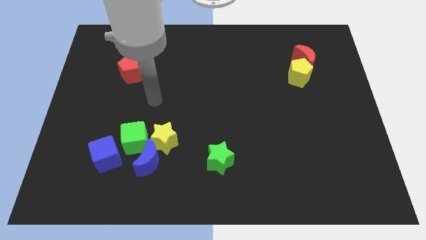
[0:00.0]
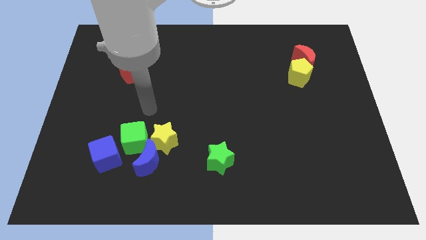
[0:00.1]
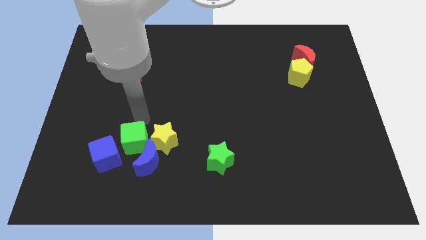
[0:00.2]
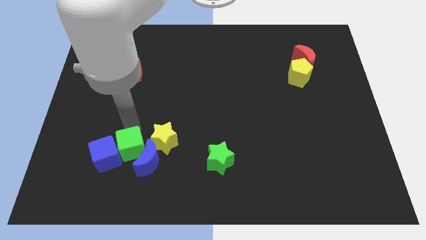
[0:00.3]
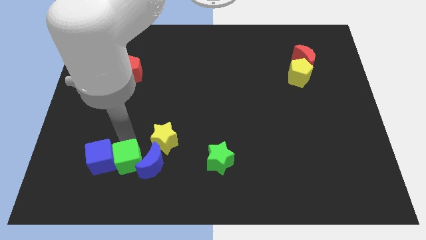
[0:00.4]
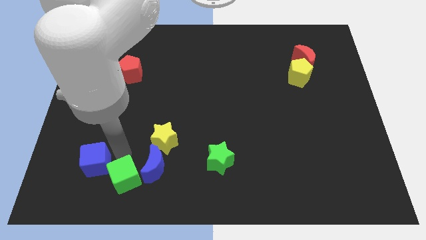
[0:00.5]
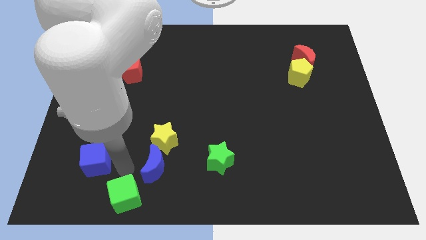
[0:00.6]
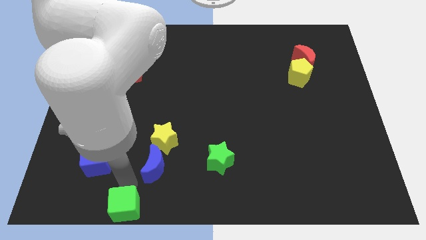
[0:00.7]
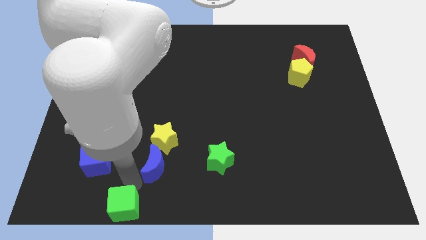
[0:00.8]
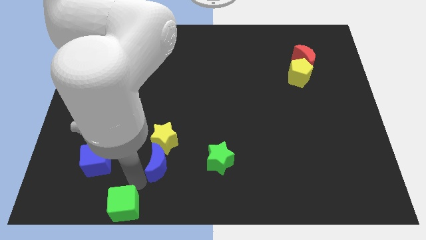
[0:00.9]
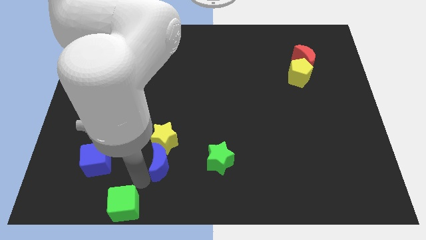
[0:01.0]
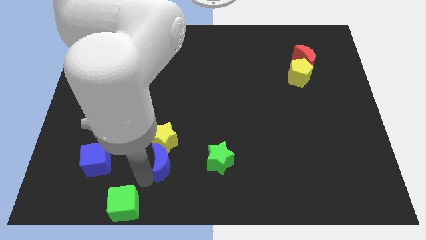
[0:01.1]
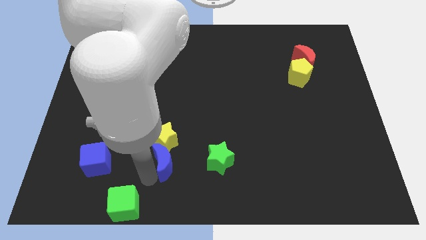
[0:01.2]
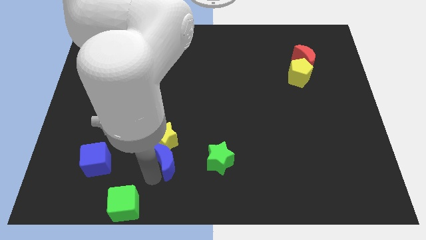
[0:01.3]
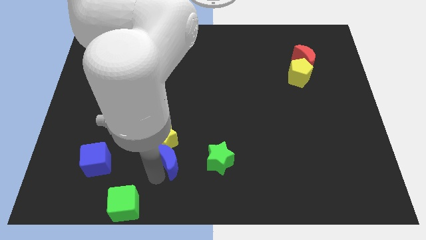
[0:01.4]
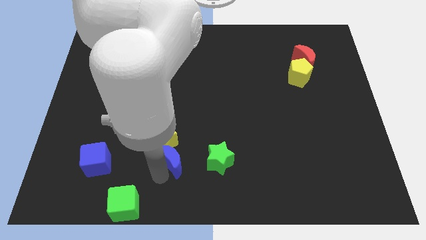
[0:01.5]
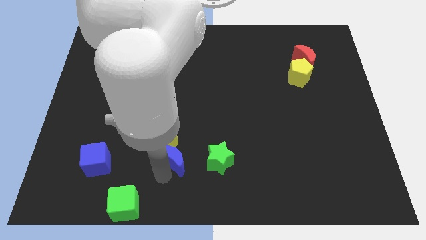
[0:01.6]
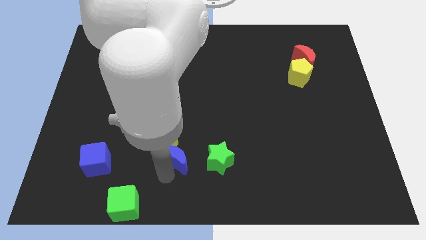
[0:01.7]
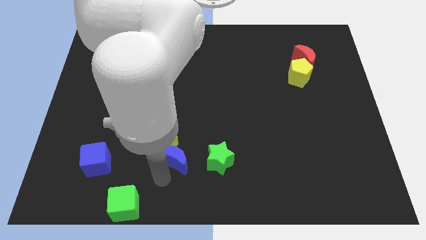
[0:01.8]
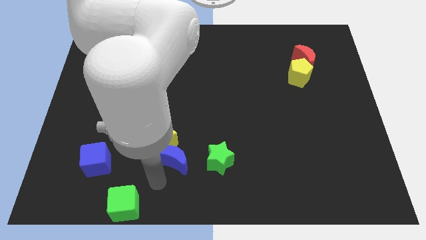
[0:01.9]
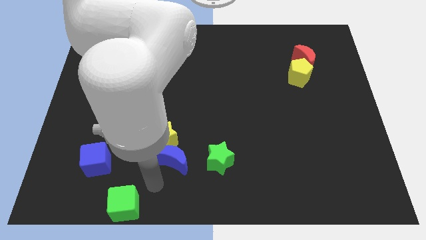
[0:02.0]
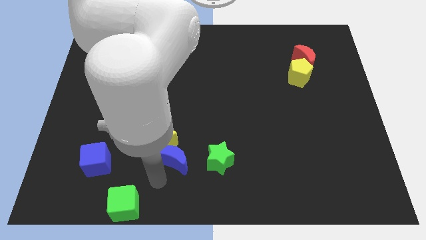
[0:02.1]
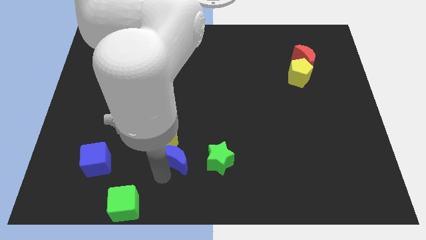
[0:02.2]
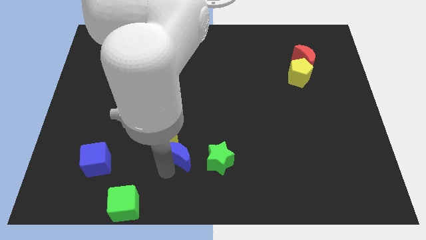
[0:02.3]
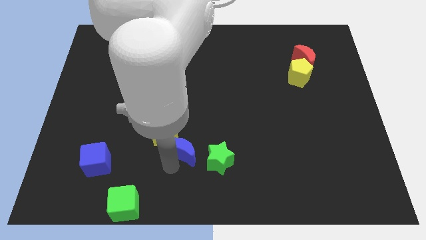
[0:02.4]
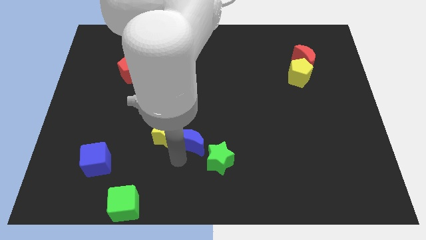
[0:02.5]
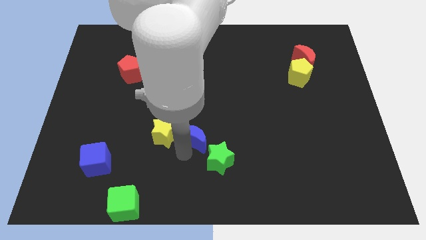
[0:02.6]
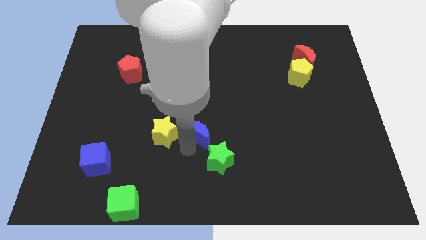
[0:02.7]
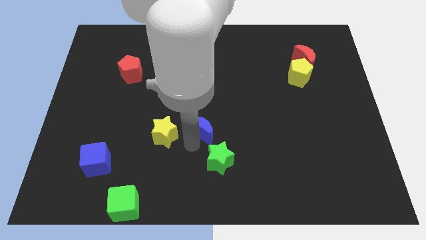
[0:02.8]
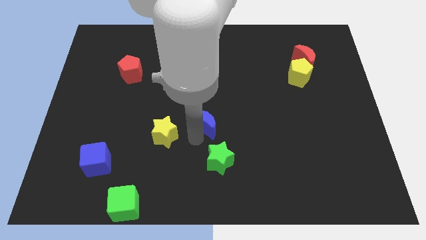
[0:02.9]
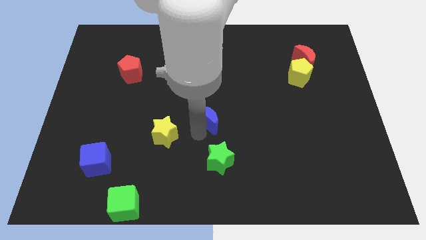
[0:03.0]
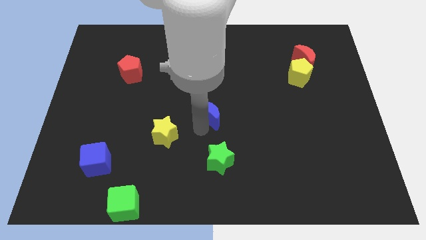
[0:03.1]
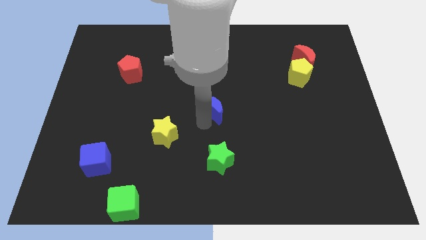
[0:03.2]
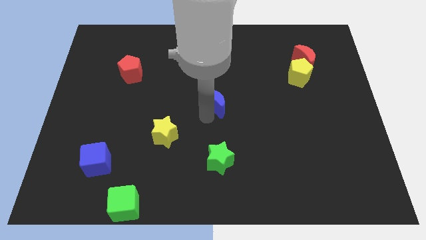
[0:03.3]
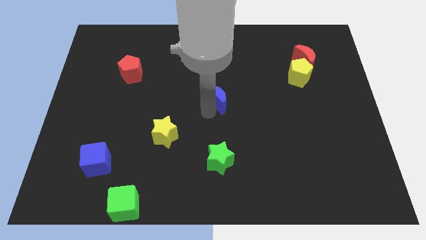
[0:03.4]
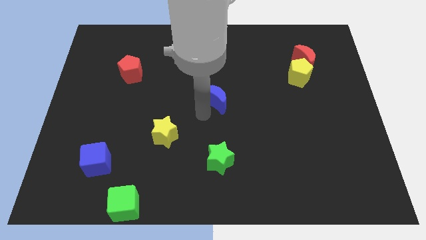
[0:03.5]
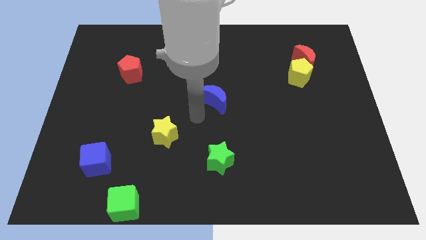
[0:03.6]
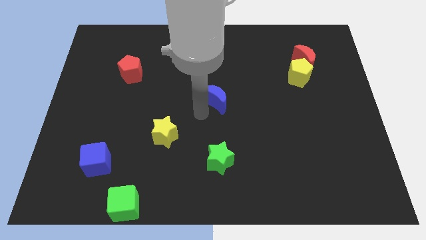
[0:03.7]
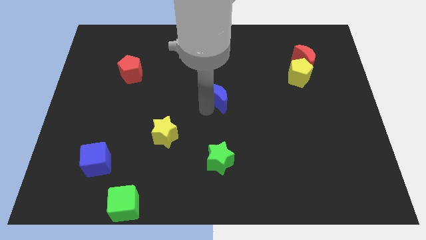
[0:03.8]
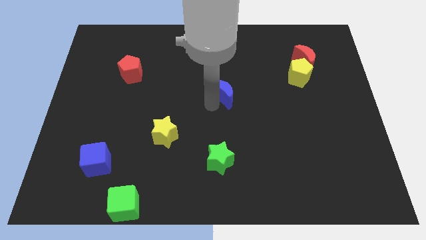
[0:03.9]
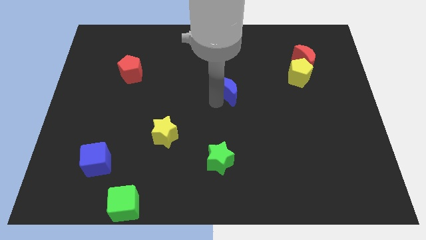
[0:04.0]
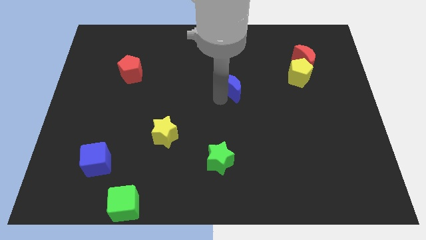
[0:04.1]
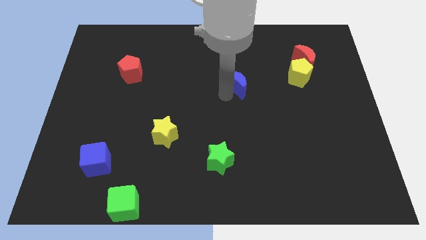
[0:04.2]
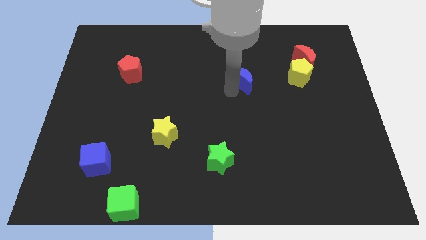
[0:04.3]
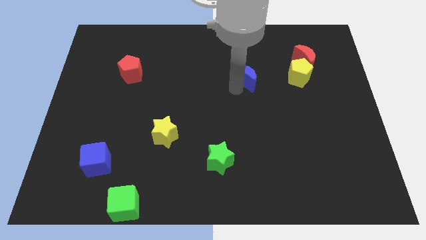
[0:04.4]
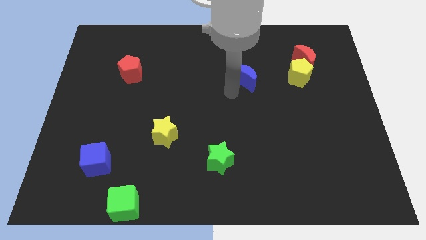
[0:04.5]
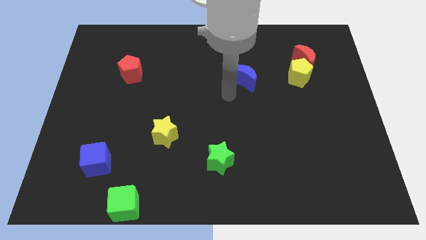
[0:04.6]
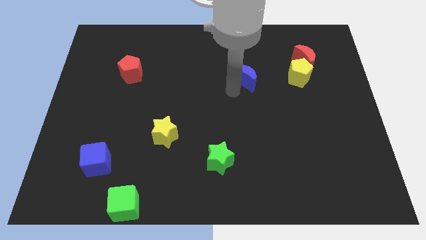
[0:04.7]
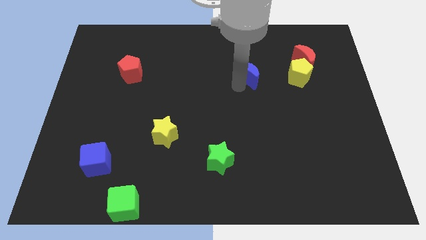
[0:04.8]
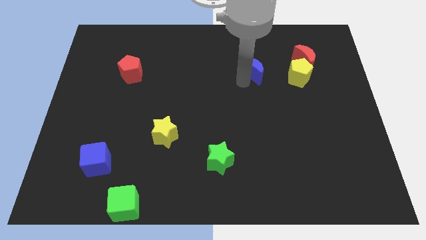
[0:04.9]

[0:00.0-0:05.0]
slide the blue moon to the left of the red moon

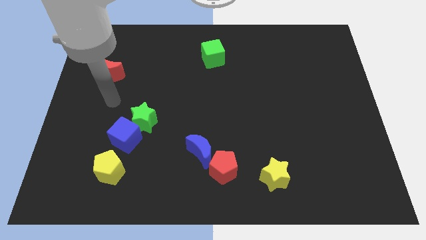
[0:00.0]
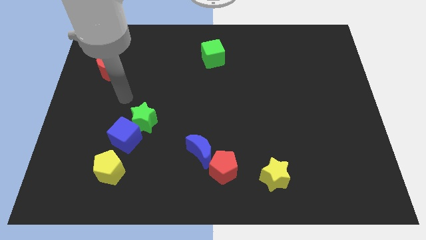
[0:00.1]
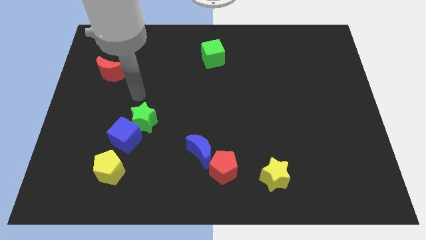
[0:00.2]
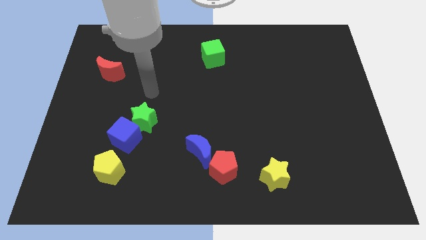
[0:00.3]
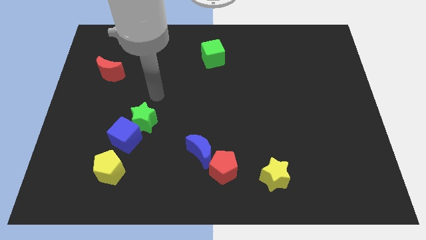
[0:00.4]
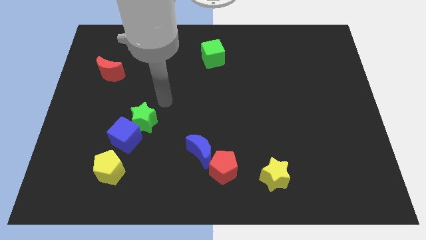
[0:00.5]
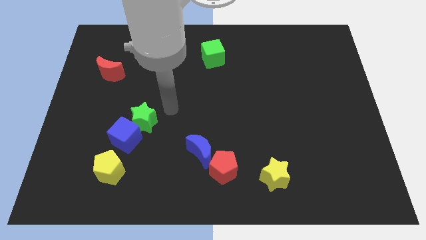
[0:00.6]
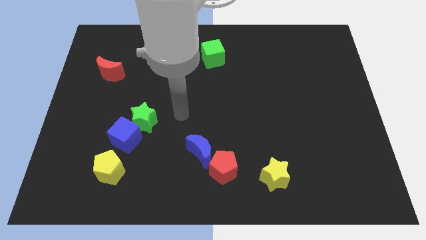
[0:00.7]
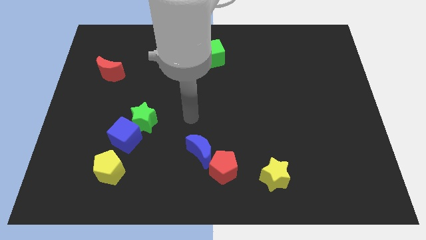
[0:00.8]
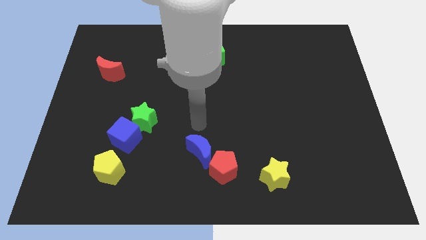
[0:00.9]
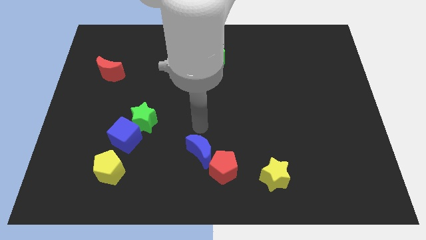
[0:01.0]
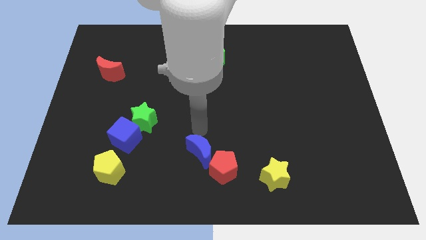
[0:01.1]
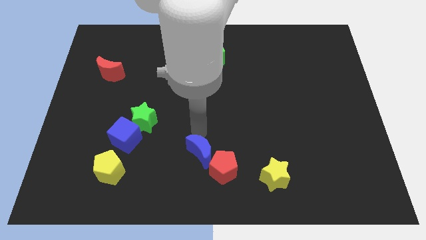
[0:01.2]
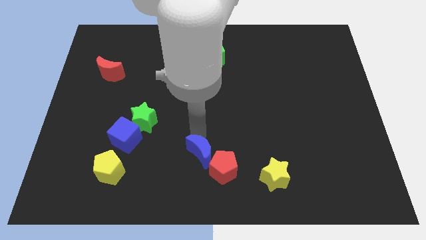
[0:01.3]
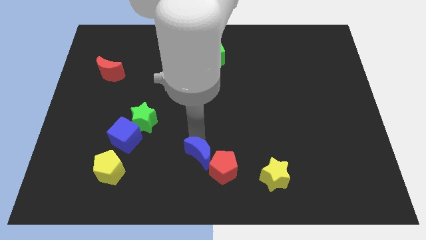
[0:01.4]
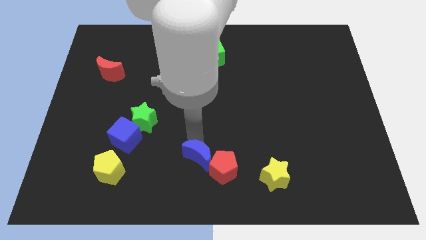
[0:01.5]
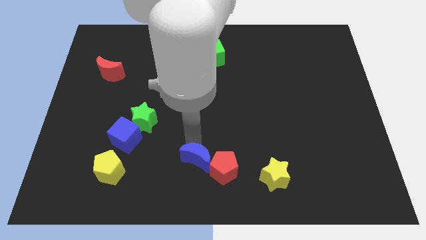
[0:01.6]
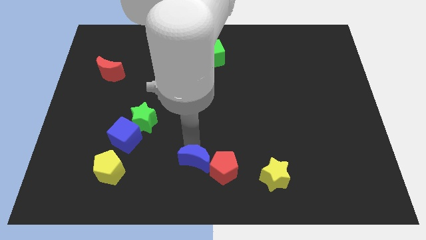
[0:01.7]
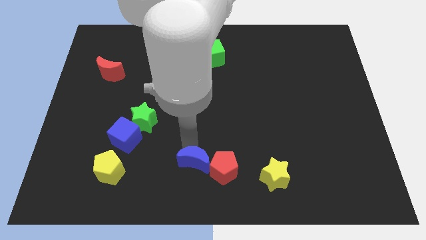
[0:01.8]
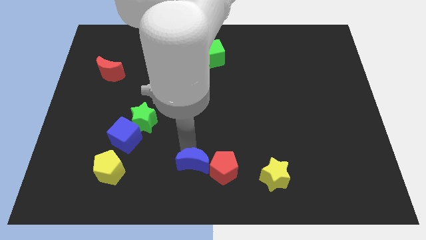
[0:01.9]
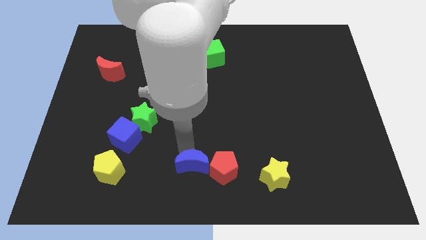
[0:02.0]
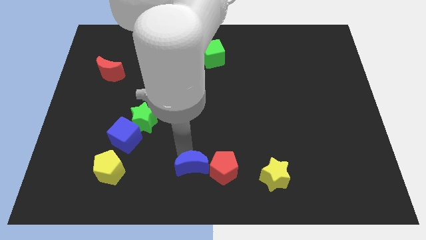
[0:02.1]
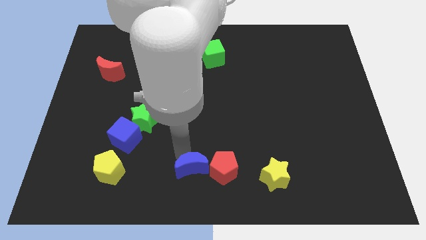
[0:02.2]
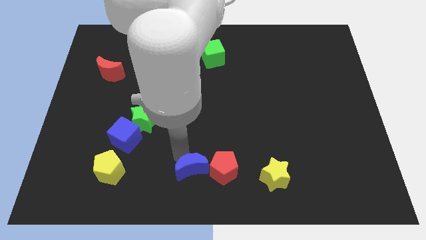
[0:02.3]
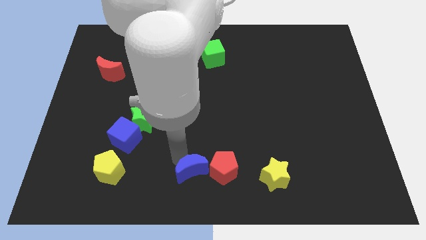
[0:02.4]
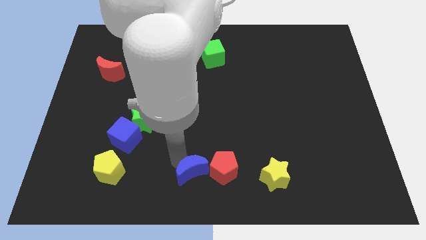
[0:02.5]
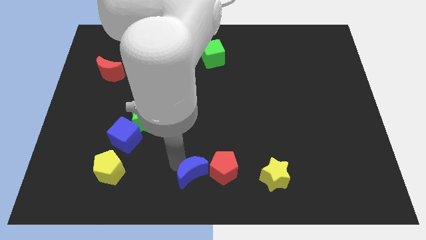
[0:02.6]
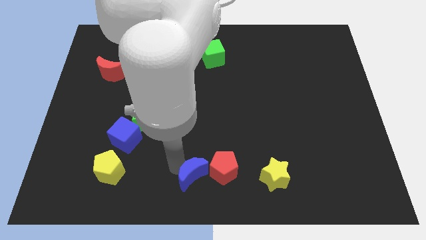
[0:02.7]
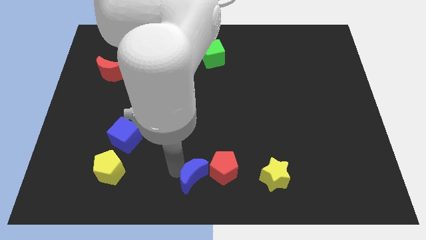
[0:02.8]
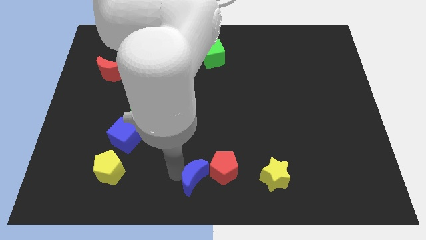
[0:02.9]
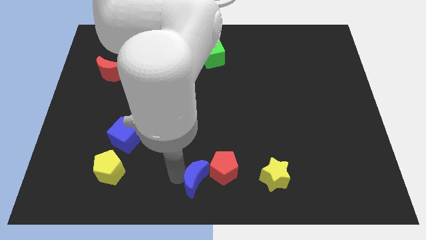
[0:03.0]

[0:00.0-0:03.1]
slide the blue moon to the left of the yellow star

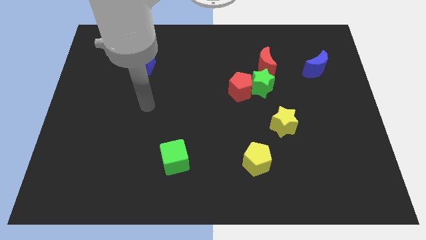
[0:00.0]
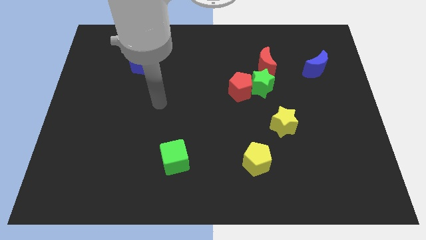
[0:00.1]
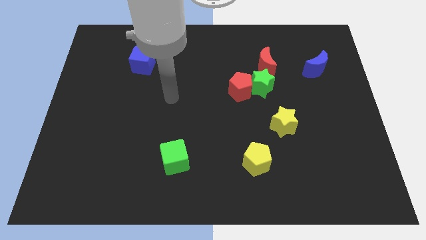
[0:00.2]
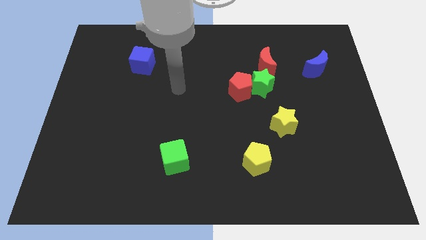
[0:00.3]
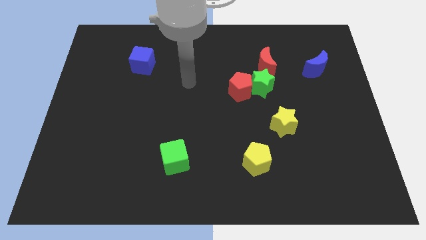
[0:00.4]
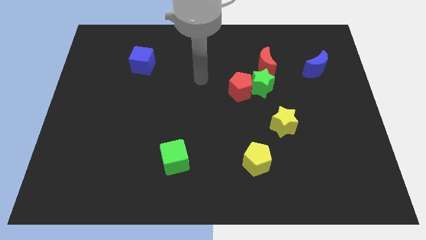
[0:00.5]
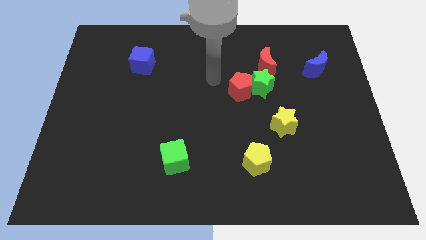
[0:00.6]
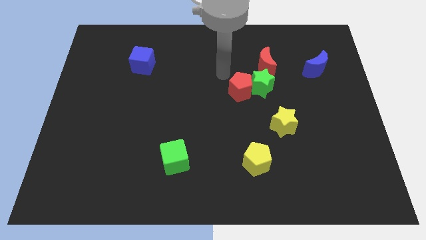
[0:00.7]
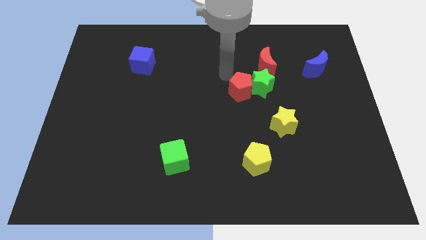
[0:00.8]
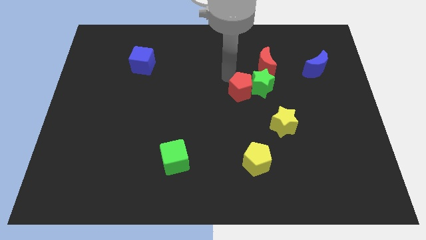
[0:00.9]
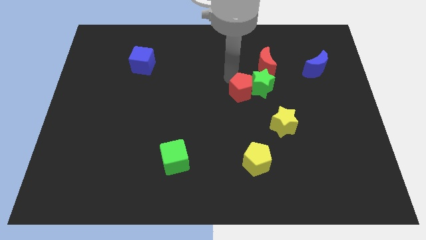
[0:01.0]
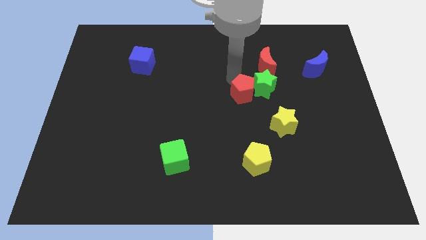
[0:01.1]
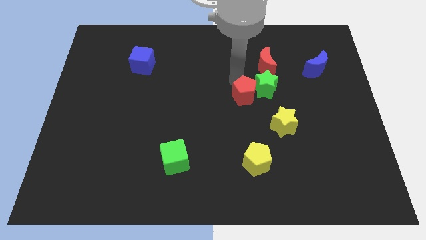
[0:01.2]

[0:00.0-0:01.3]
slide the red pentagon to the top left of the yellow star
